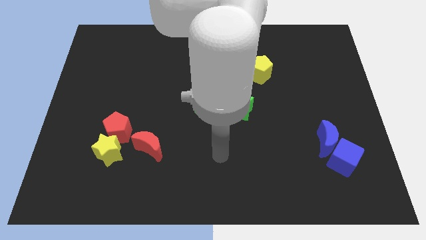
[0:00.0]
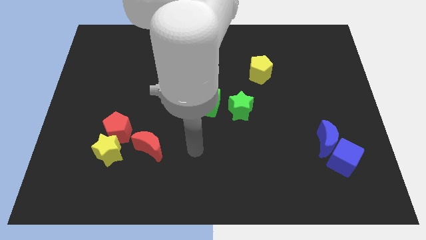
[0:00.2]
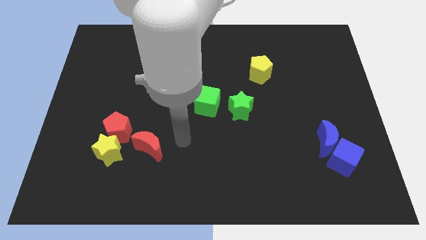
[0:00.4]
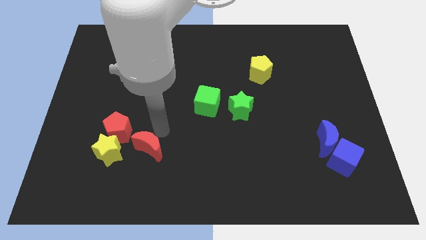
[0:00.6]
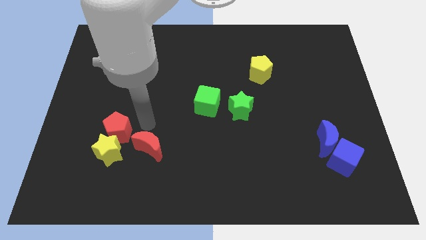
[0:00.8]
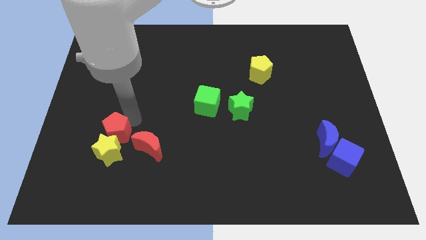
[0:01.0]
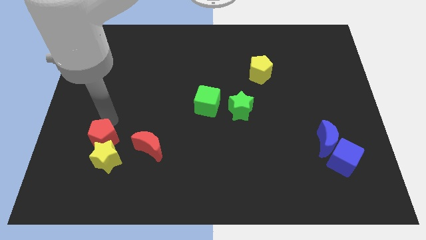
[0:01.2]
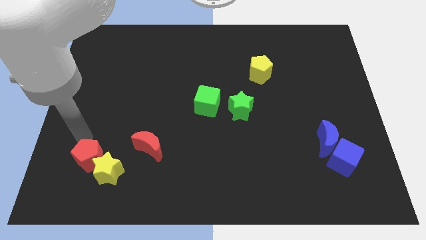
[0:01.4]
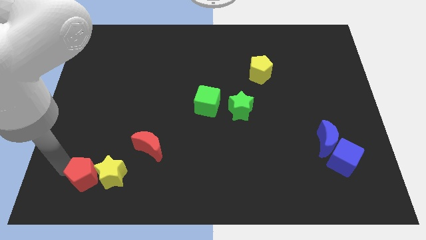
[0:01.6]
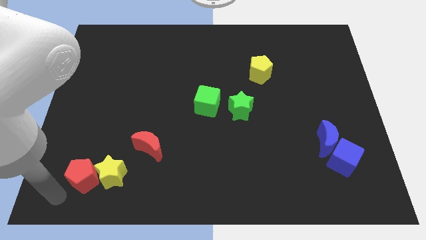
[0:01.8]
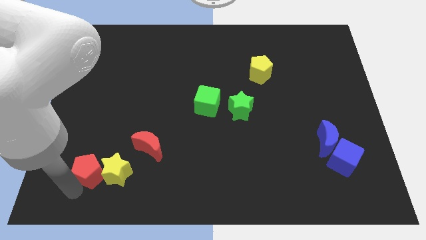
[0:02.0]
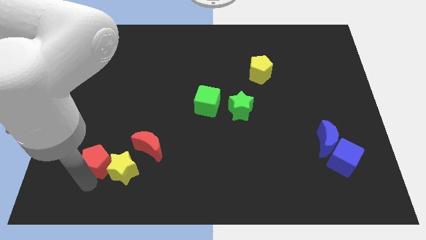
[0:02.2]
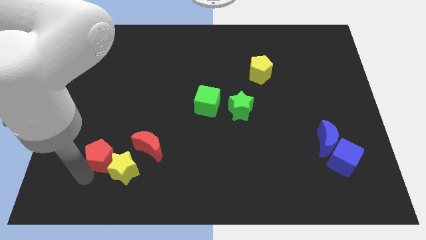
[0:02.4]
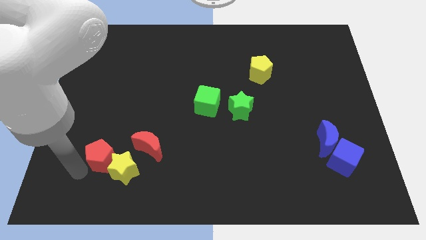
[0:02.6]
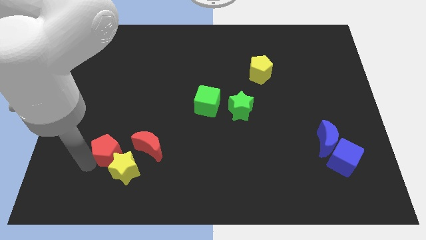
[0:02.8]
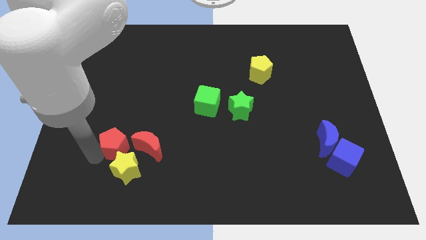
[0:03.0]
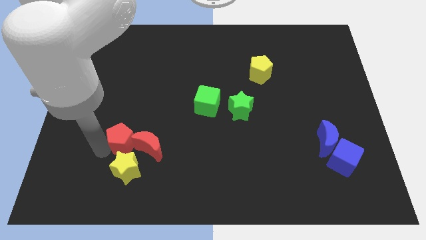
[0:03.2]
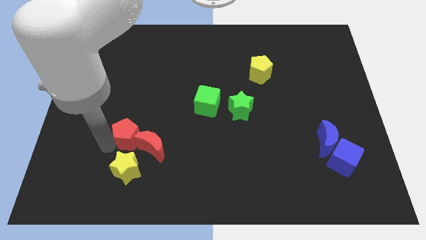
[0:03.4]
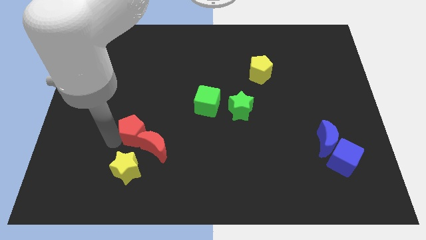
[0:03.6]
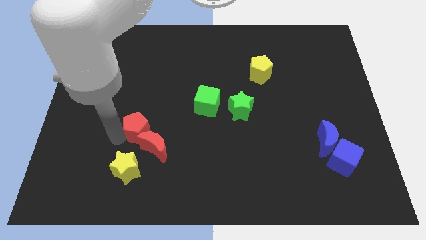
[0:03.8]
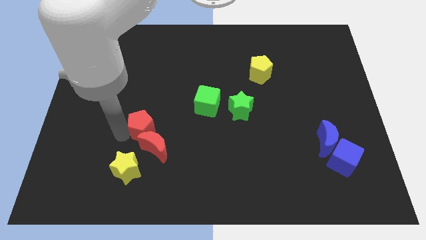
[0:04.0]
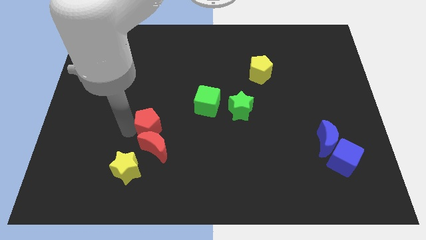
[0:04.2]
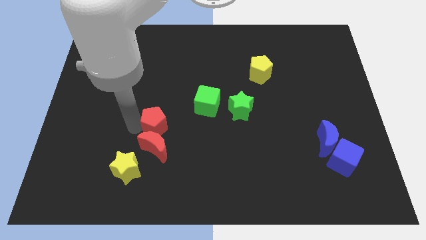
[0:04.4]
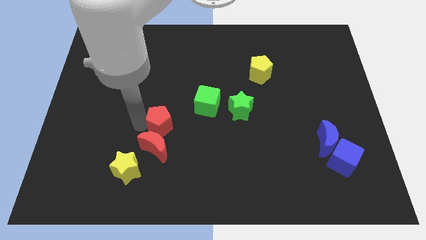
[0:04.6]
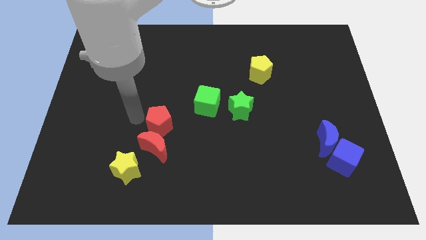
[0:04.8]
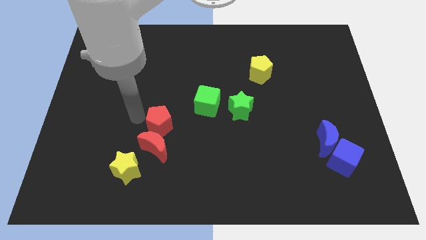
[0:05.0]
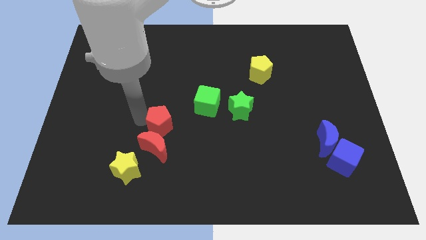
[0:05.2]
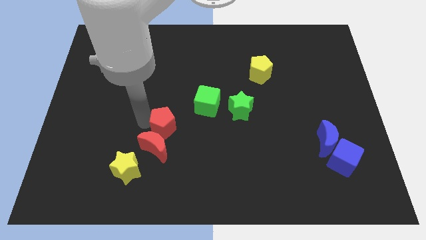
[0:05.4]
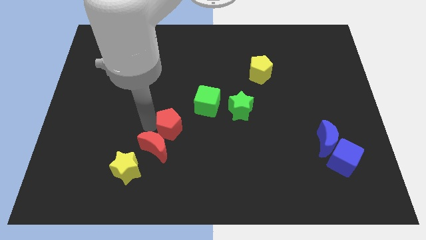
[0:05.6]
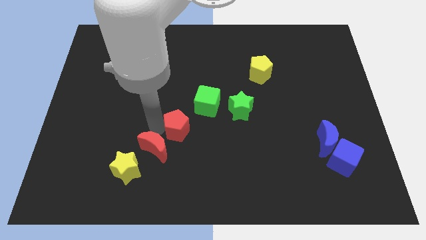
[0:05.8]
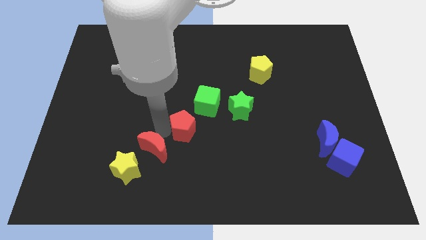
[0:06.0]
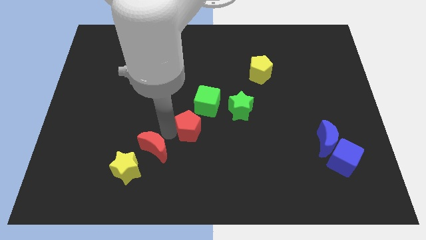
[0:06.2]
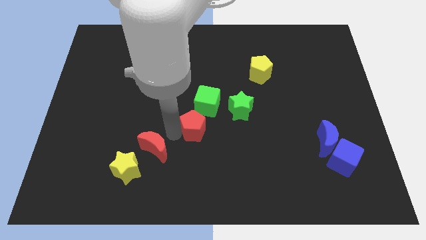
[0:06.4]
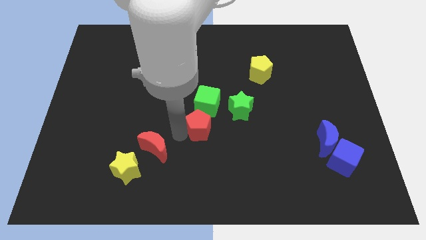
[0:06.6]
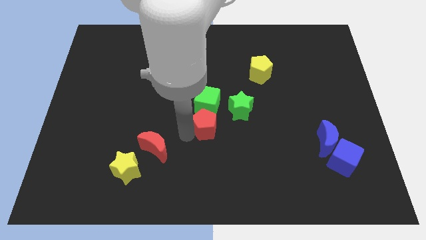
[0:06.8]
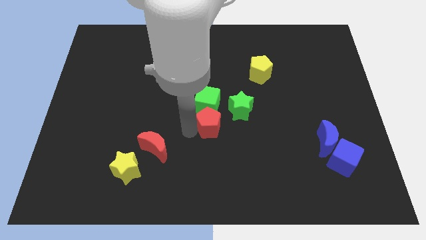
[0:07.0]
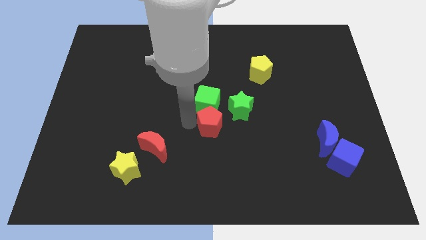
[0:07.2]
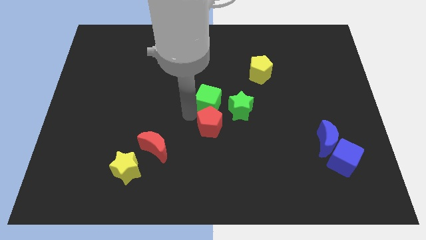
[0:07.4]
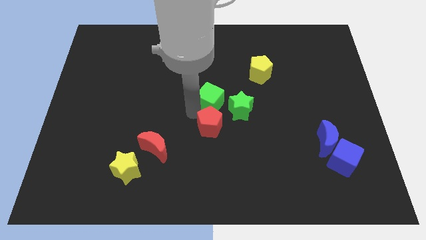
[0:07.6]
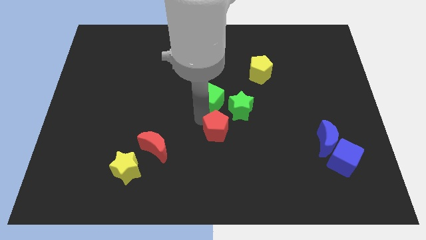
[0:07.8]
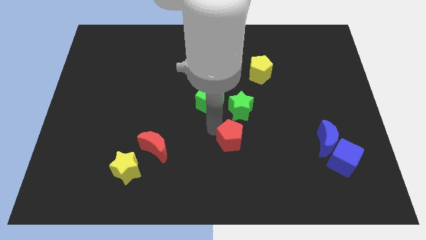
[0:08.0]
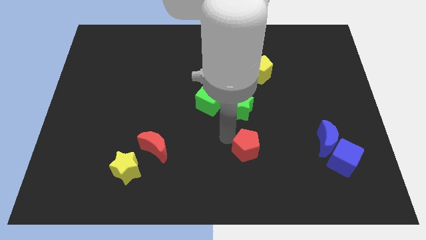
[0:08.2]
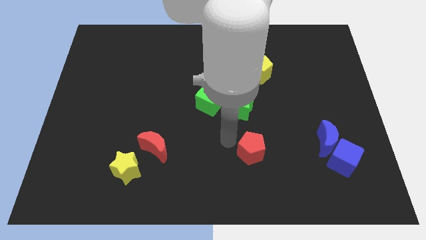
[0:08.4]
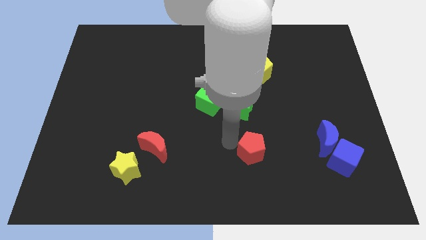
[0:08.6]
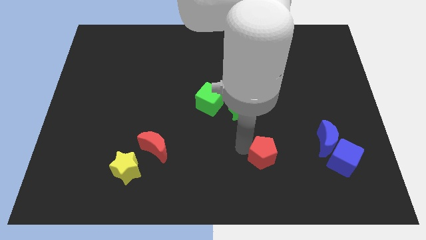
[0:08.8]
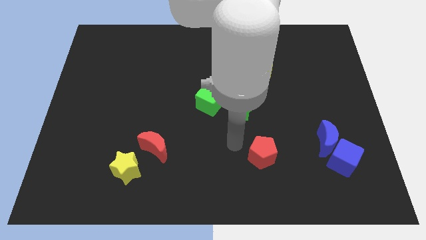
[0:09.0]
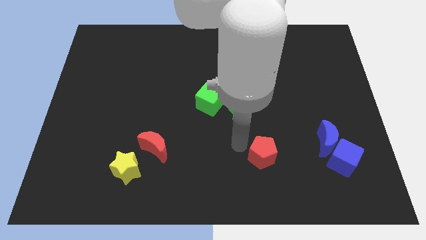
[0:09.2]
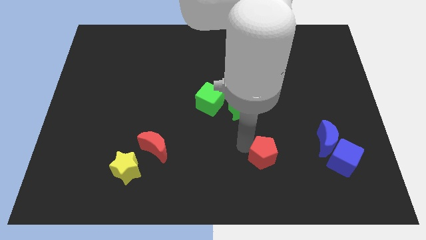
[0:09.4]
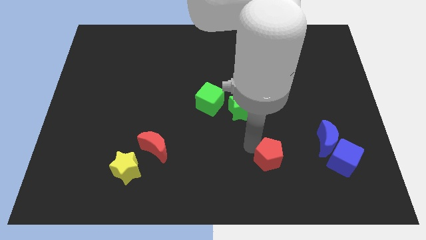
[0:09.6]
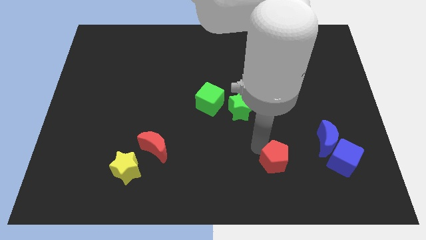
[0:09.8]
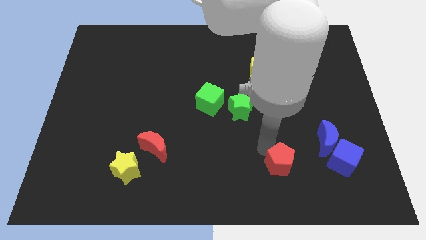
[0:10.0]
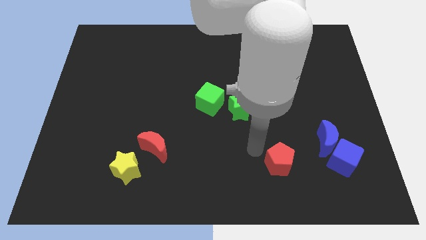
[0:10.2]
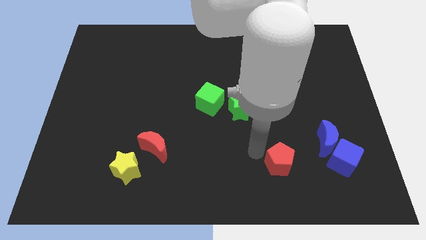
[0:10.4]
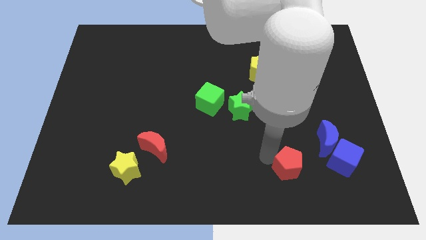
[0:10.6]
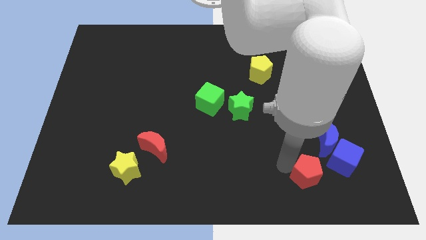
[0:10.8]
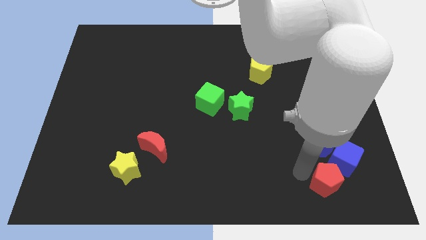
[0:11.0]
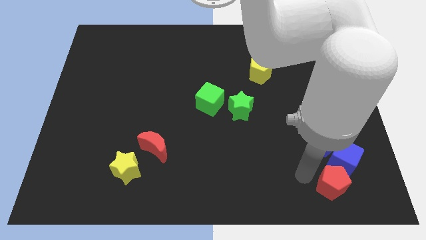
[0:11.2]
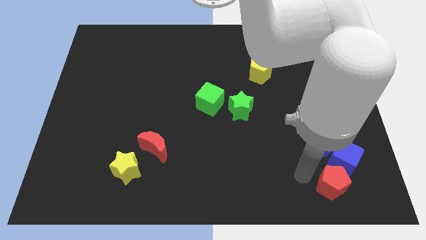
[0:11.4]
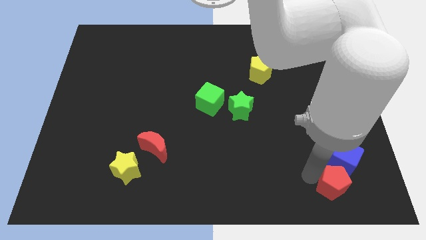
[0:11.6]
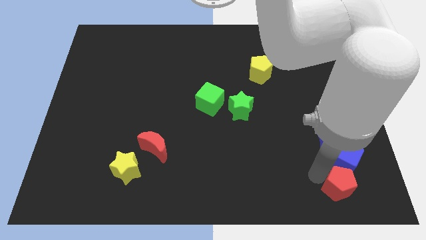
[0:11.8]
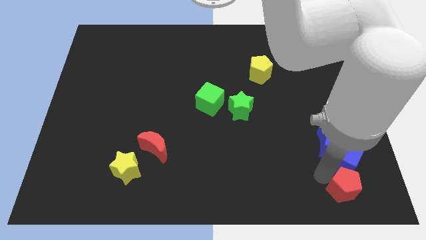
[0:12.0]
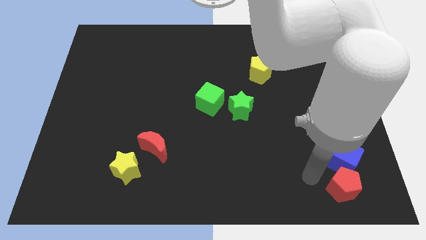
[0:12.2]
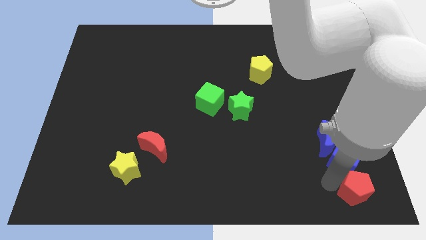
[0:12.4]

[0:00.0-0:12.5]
push the red pentagon to the bottom right
